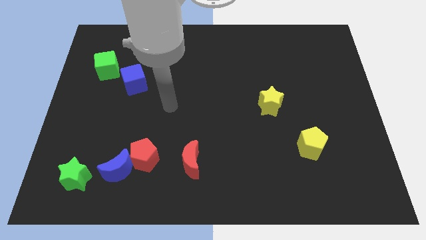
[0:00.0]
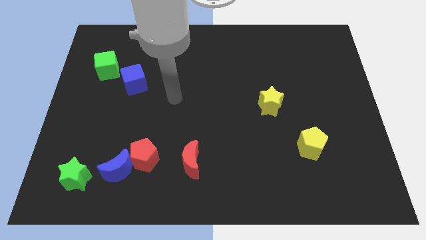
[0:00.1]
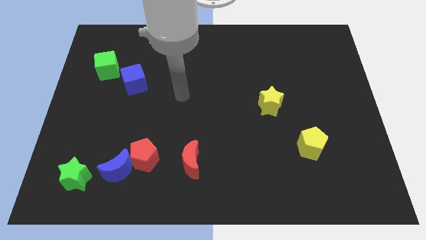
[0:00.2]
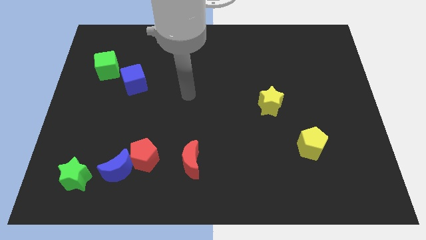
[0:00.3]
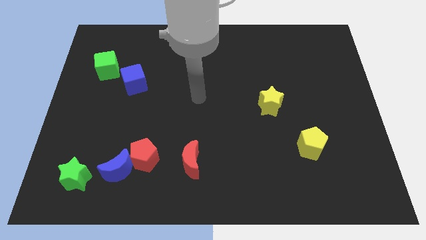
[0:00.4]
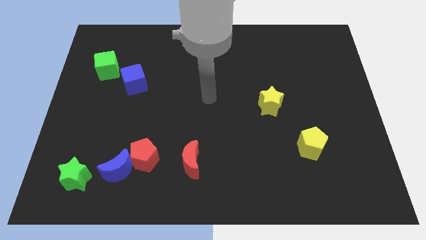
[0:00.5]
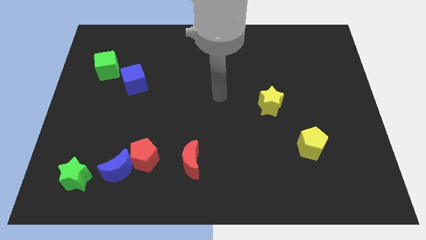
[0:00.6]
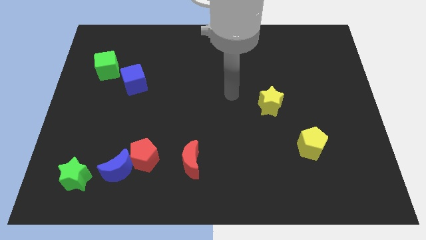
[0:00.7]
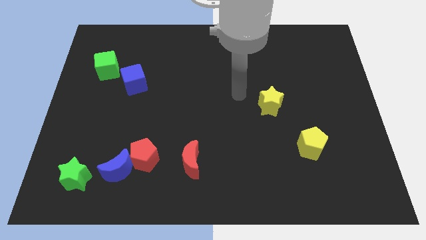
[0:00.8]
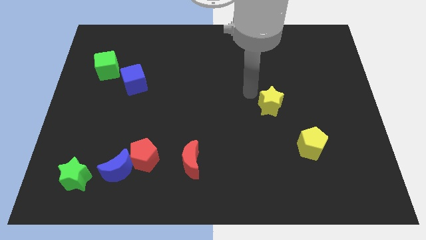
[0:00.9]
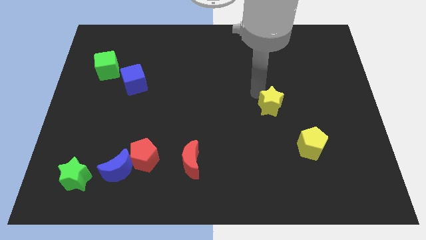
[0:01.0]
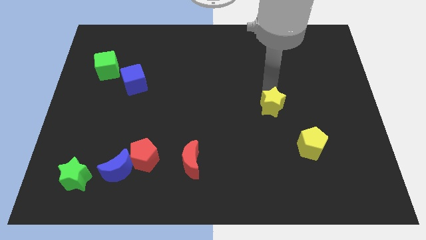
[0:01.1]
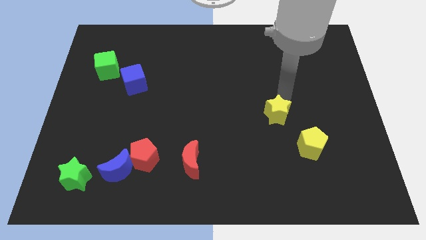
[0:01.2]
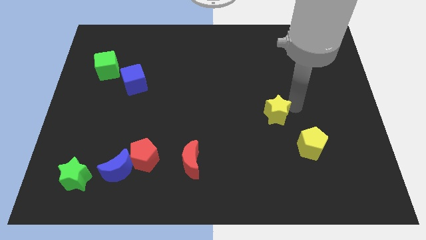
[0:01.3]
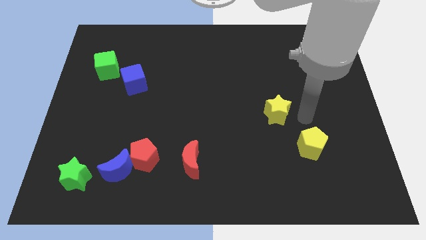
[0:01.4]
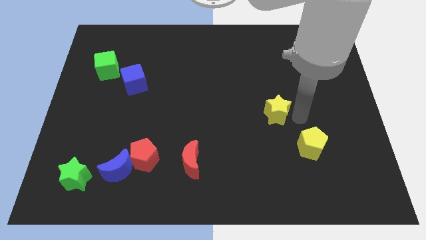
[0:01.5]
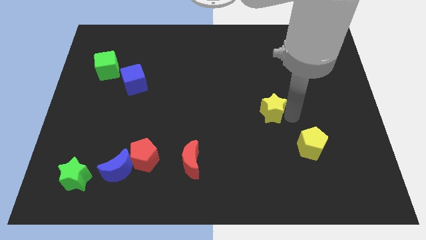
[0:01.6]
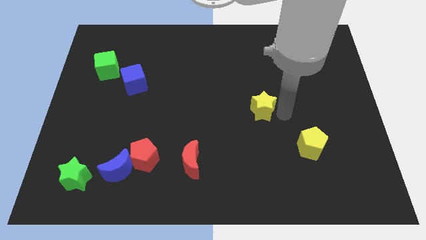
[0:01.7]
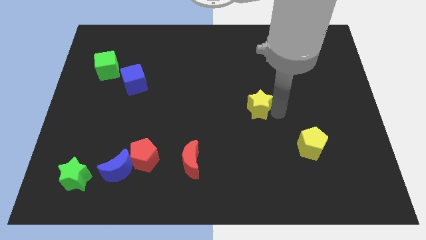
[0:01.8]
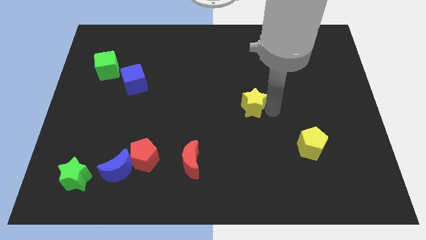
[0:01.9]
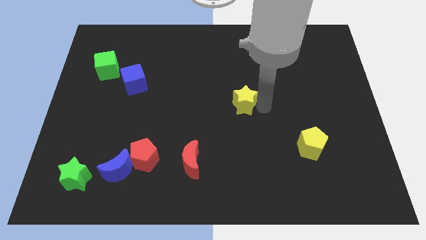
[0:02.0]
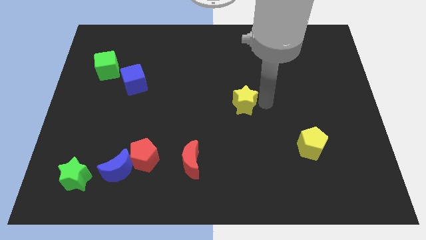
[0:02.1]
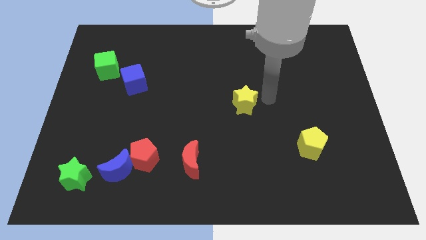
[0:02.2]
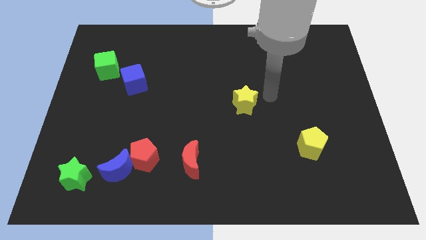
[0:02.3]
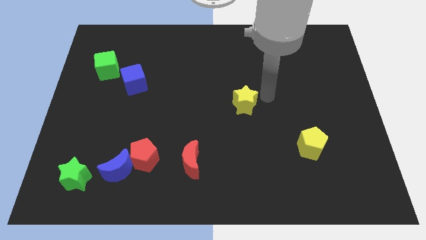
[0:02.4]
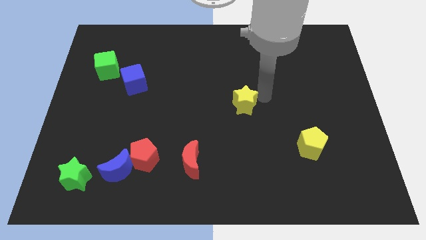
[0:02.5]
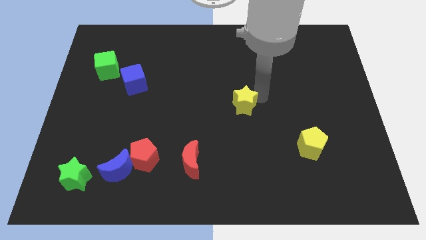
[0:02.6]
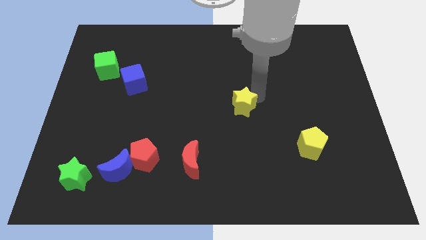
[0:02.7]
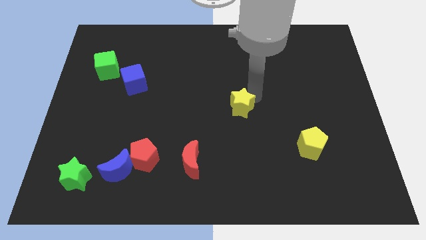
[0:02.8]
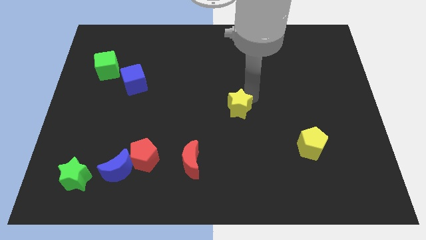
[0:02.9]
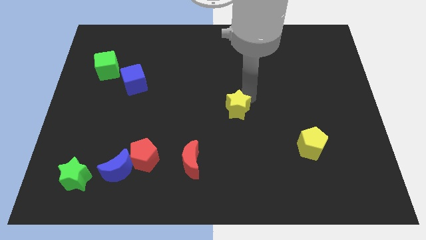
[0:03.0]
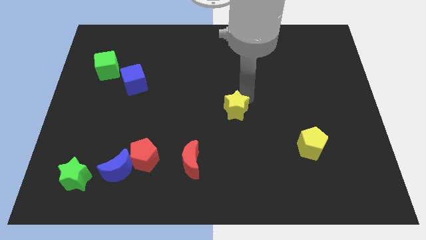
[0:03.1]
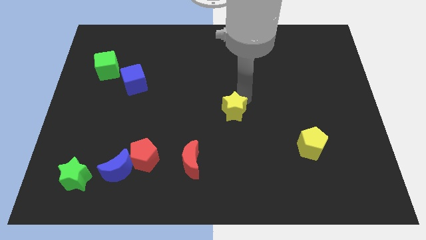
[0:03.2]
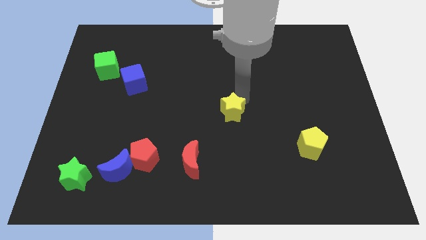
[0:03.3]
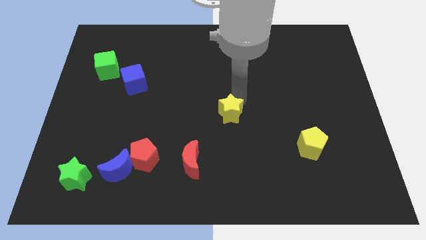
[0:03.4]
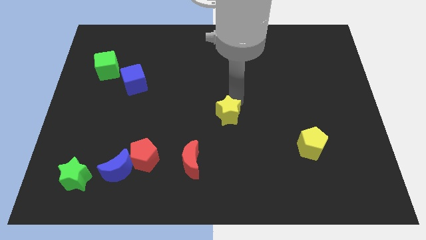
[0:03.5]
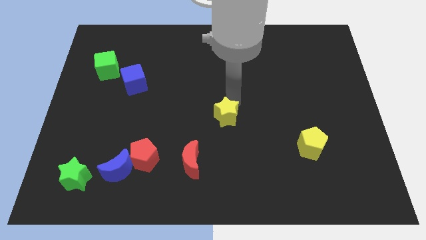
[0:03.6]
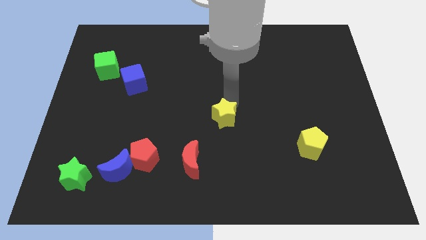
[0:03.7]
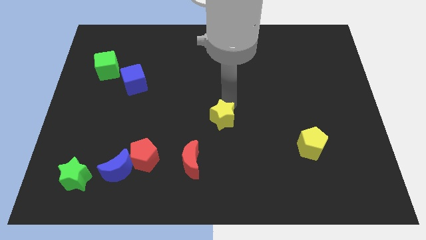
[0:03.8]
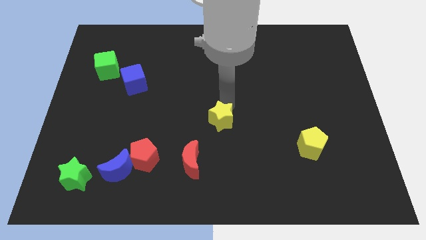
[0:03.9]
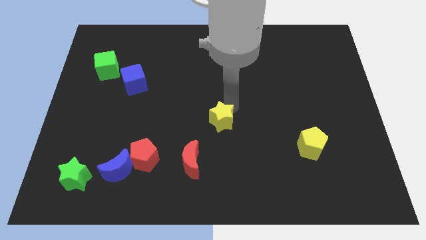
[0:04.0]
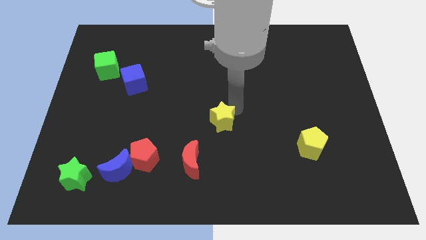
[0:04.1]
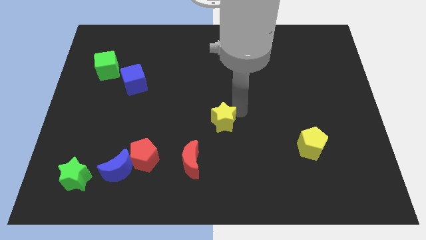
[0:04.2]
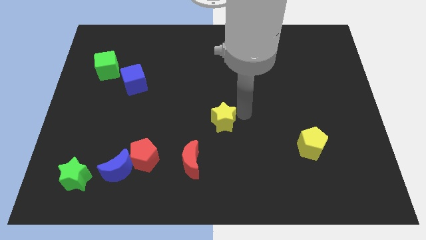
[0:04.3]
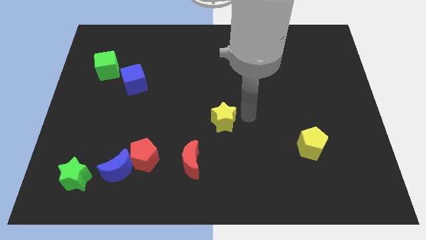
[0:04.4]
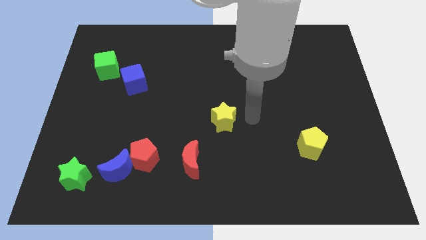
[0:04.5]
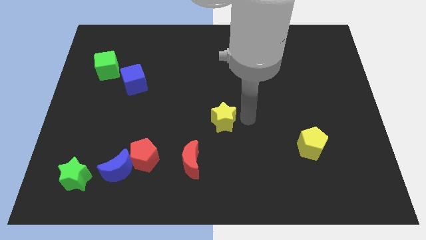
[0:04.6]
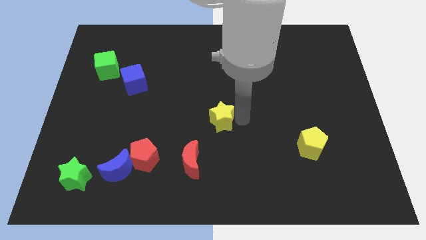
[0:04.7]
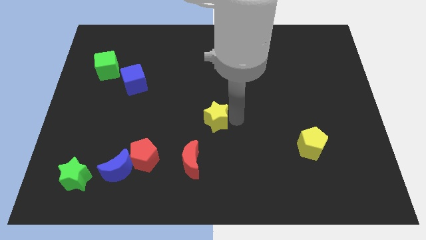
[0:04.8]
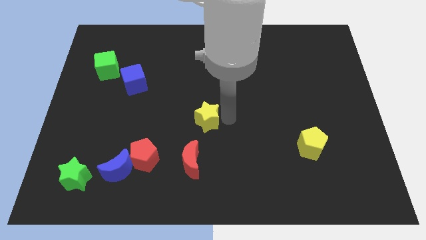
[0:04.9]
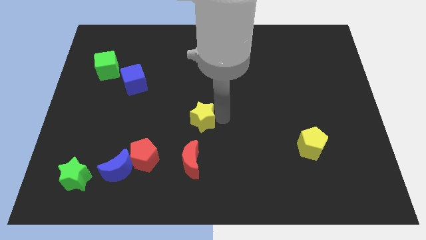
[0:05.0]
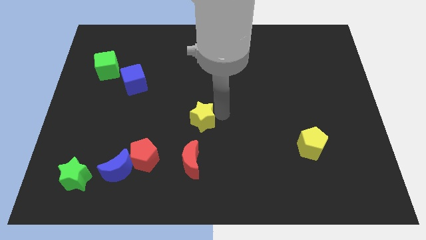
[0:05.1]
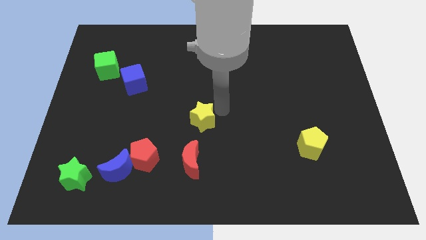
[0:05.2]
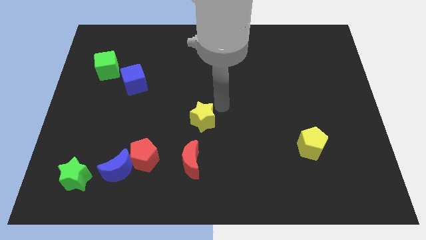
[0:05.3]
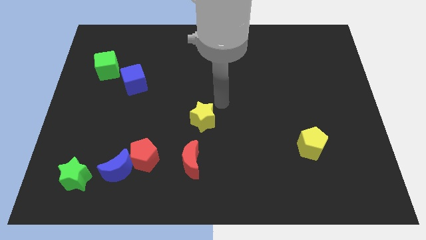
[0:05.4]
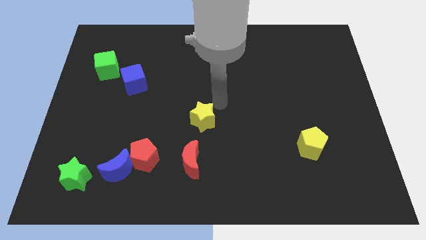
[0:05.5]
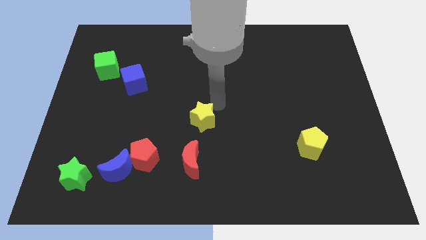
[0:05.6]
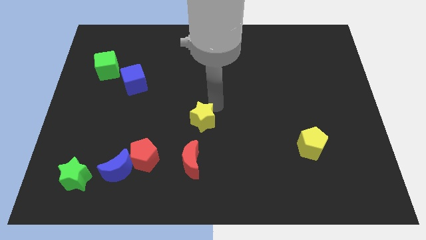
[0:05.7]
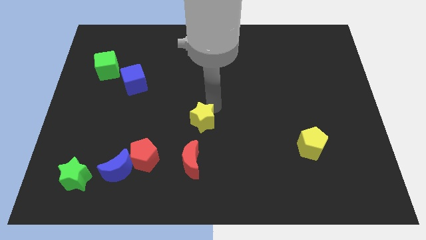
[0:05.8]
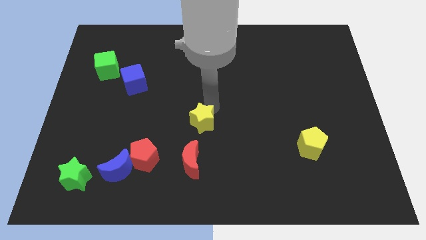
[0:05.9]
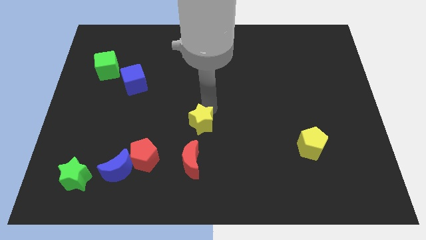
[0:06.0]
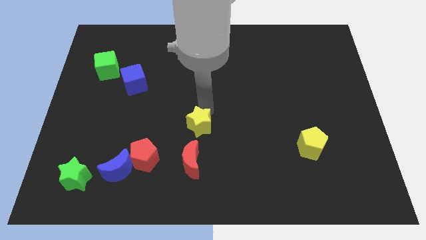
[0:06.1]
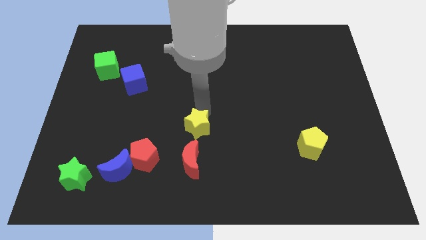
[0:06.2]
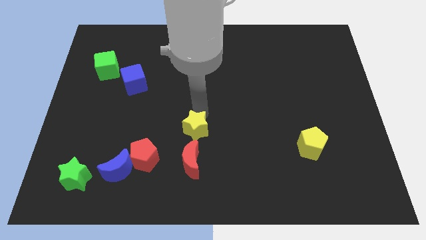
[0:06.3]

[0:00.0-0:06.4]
put the yellow star to the top right side of the red pentagon

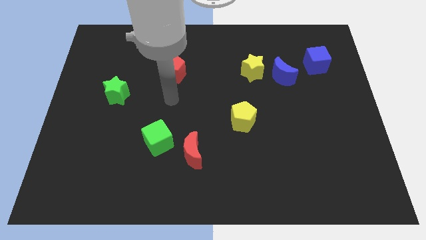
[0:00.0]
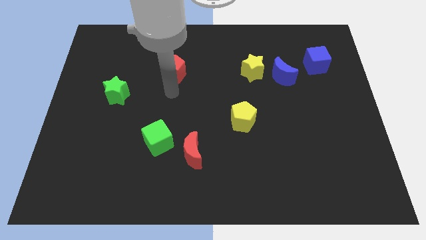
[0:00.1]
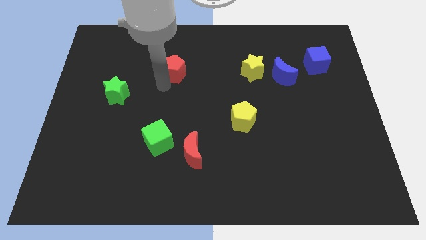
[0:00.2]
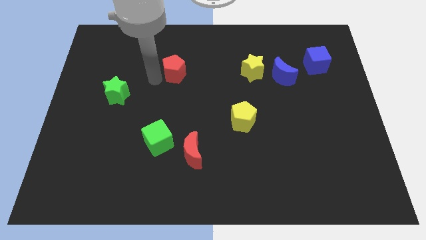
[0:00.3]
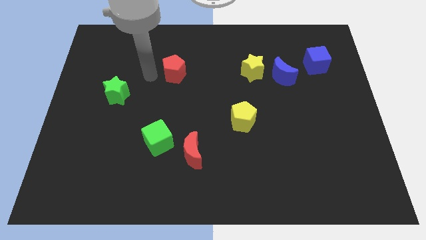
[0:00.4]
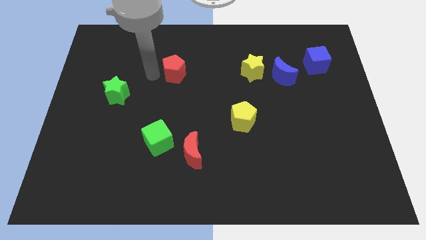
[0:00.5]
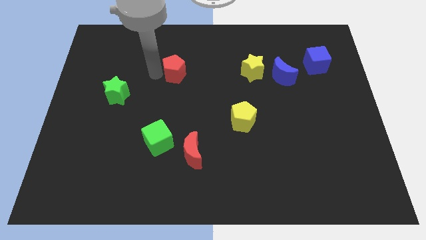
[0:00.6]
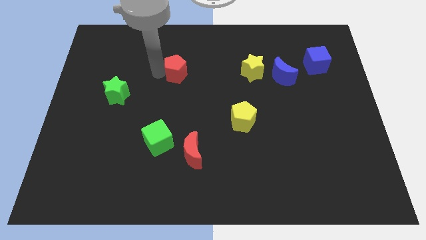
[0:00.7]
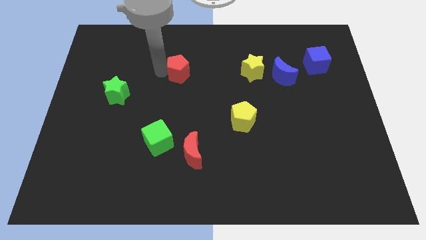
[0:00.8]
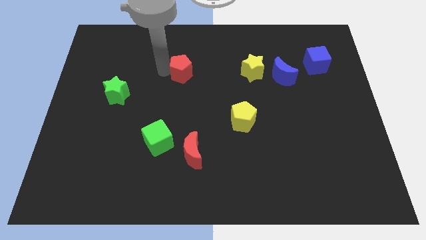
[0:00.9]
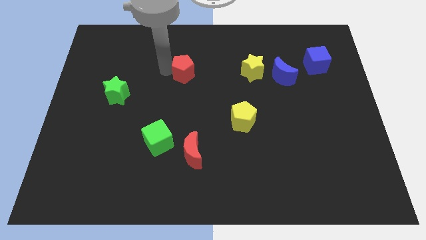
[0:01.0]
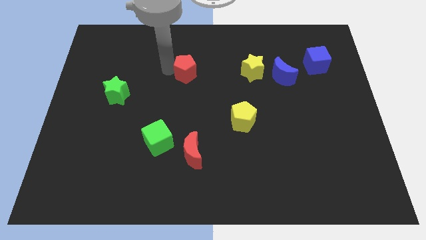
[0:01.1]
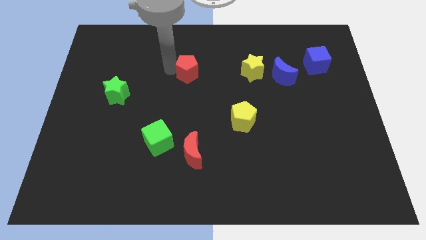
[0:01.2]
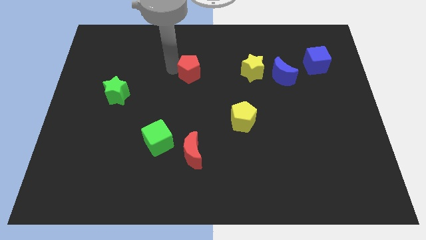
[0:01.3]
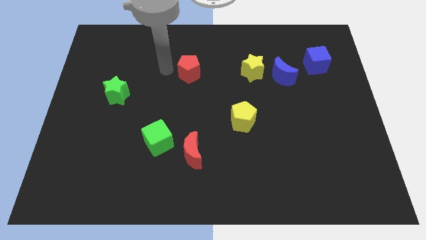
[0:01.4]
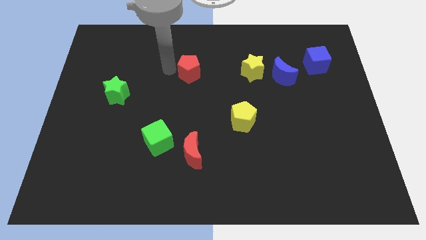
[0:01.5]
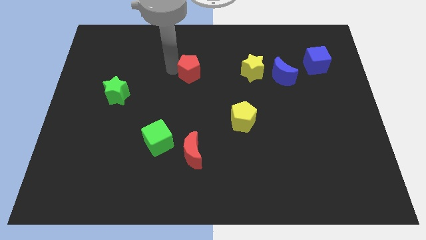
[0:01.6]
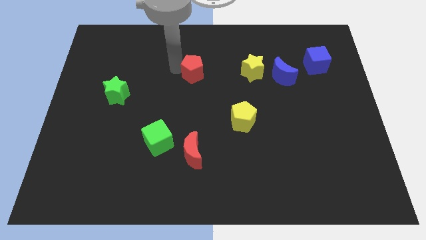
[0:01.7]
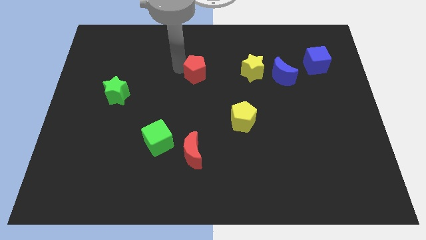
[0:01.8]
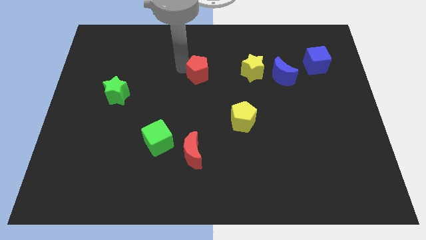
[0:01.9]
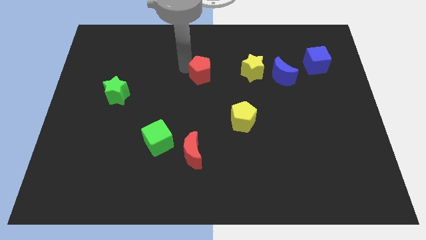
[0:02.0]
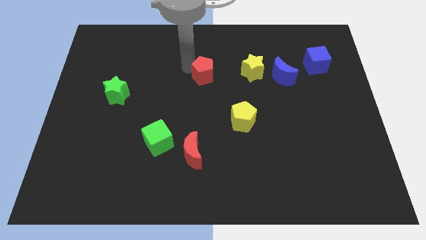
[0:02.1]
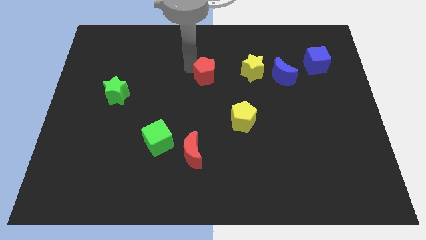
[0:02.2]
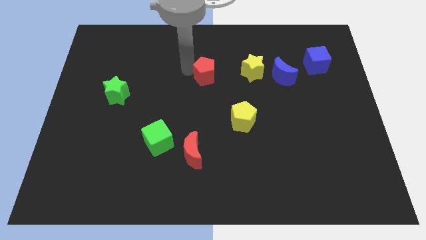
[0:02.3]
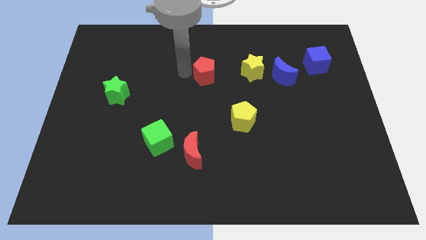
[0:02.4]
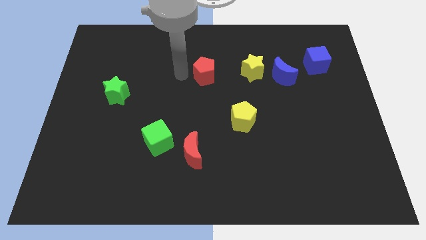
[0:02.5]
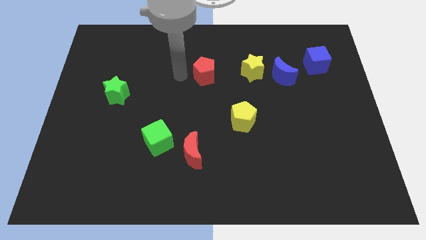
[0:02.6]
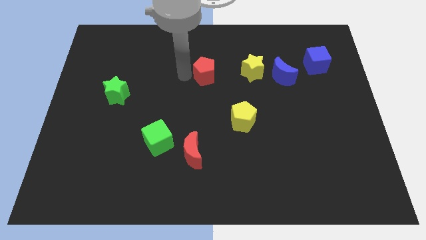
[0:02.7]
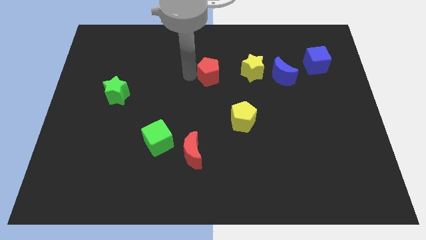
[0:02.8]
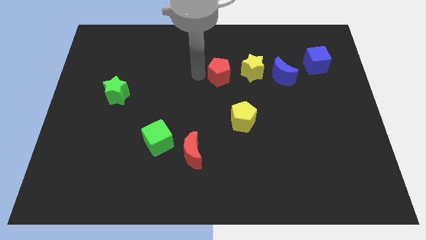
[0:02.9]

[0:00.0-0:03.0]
move the red pentagon just left of the blue moon
